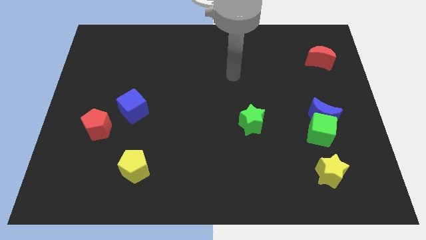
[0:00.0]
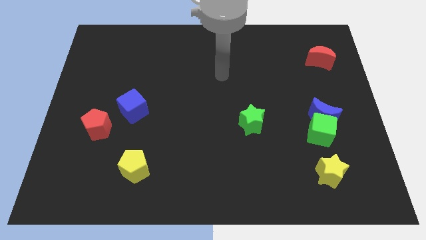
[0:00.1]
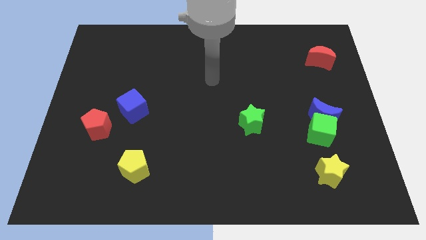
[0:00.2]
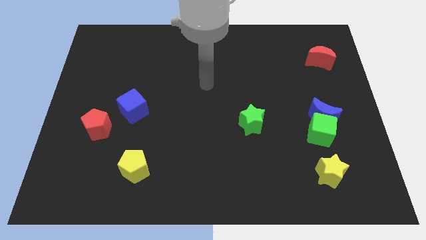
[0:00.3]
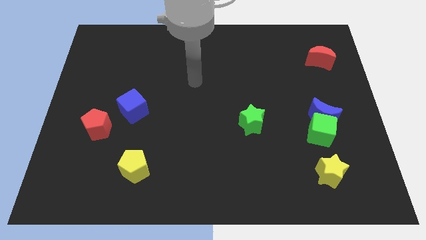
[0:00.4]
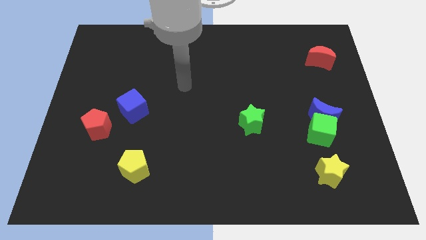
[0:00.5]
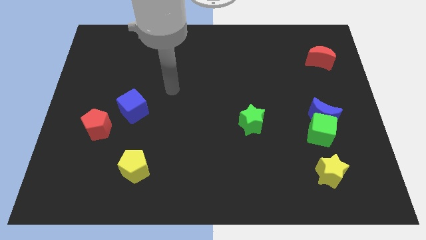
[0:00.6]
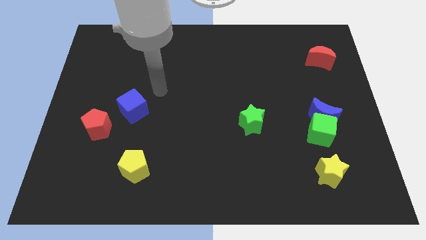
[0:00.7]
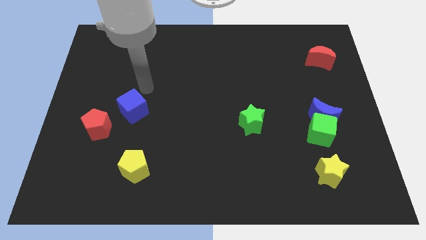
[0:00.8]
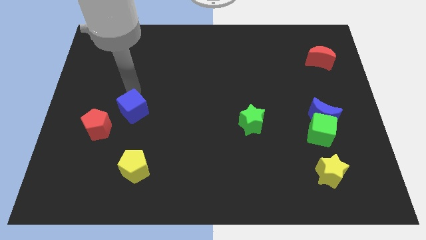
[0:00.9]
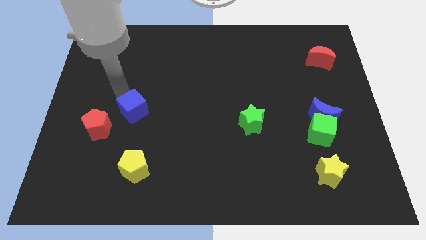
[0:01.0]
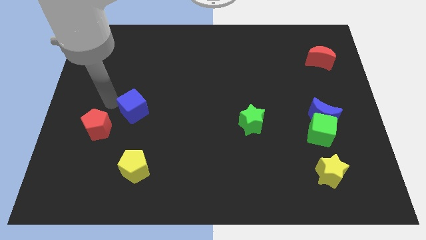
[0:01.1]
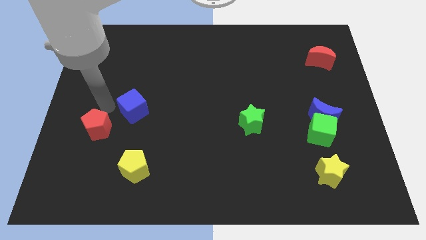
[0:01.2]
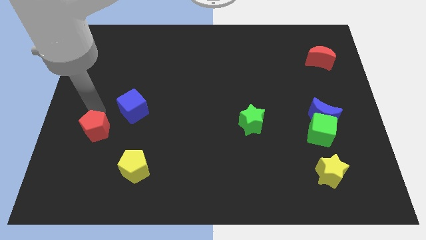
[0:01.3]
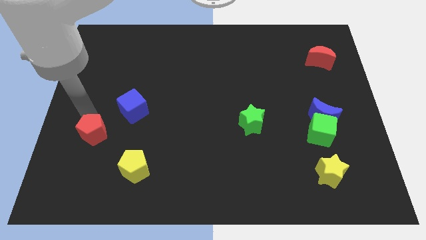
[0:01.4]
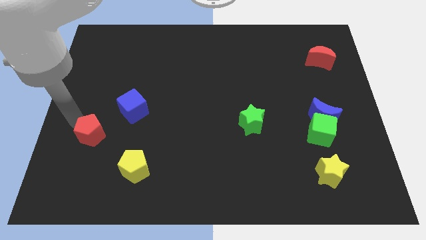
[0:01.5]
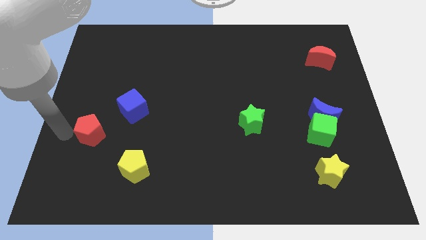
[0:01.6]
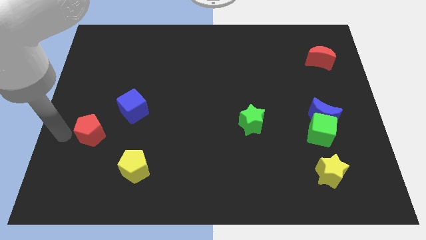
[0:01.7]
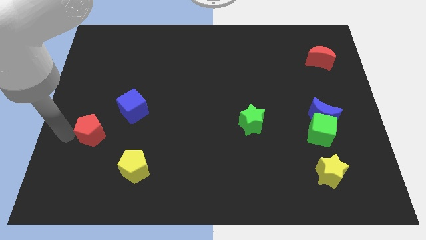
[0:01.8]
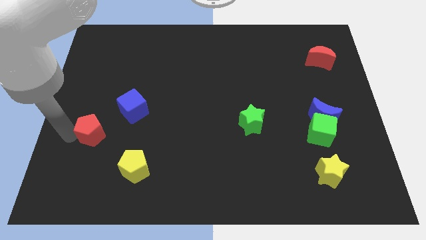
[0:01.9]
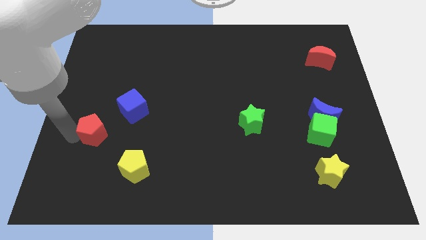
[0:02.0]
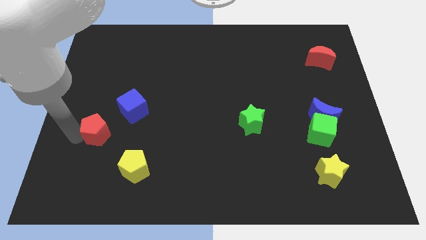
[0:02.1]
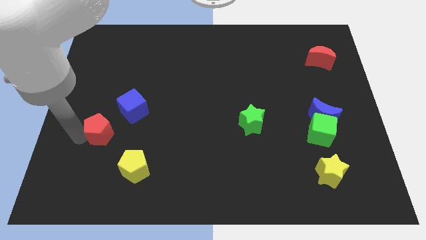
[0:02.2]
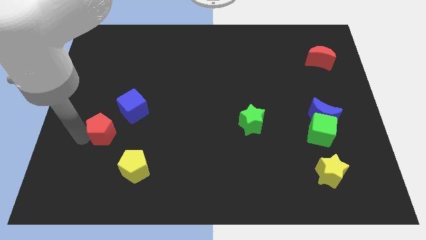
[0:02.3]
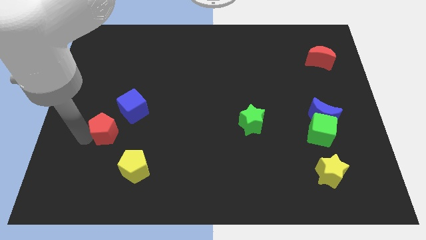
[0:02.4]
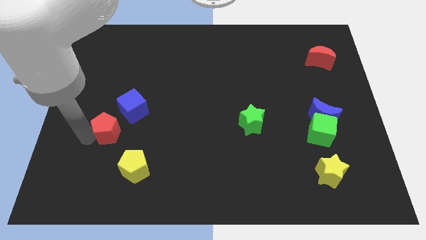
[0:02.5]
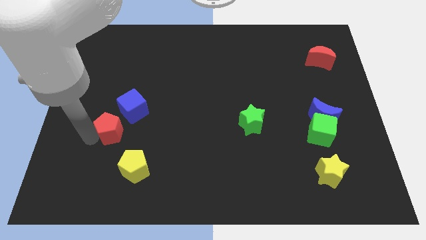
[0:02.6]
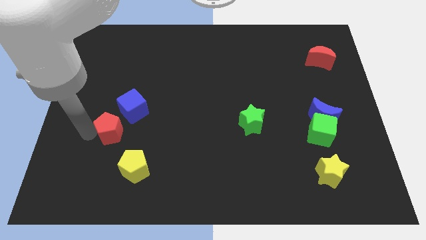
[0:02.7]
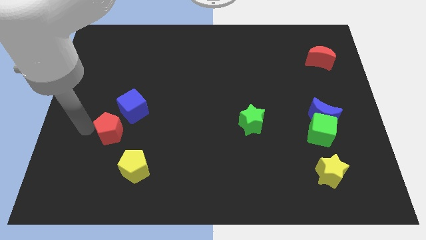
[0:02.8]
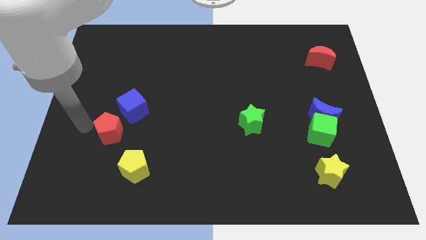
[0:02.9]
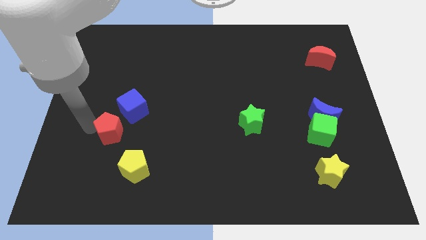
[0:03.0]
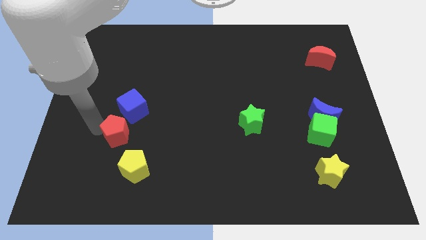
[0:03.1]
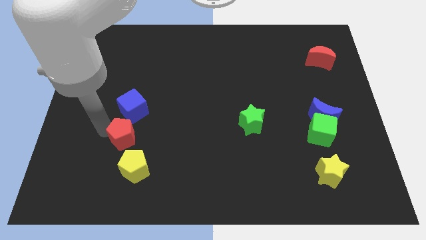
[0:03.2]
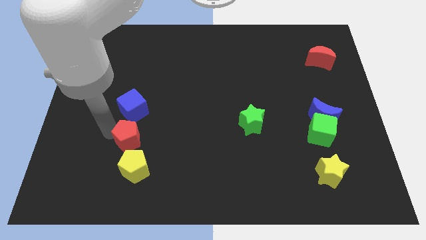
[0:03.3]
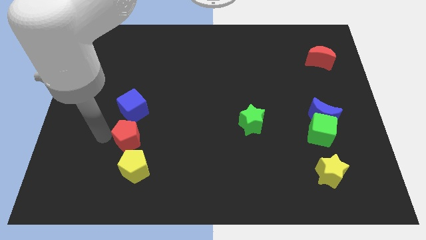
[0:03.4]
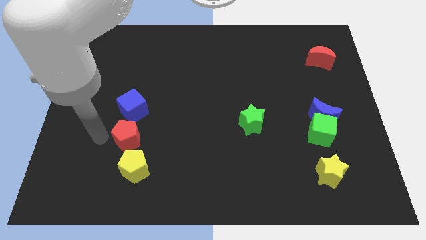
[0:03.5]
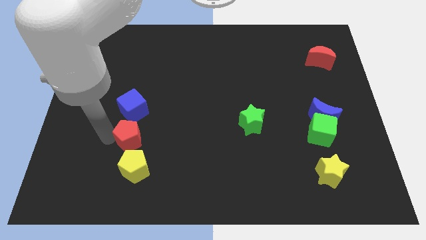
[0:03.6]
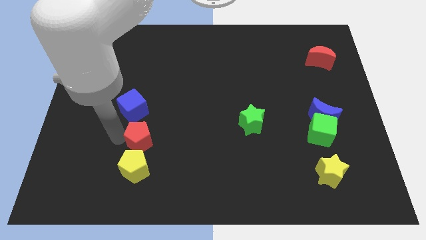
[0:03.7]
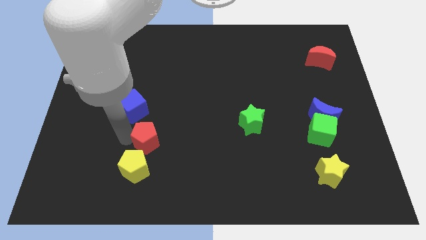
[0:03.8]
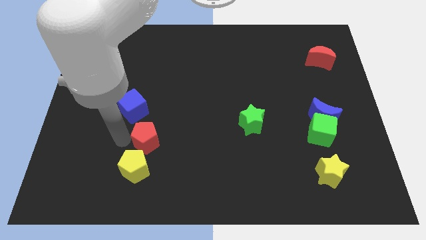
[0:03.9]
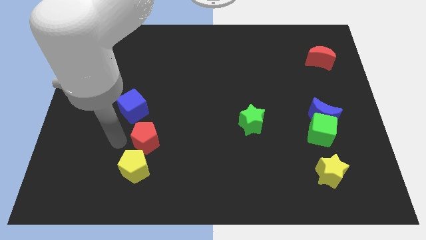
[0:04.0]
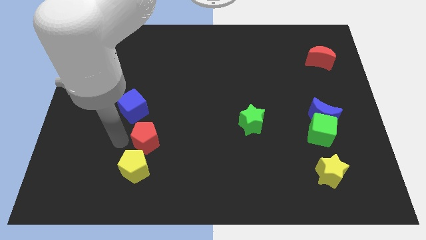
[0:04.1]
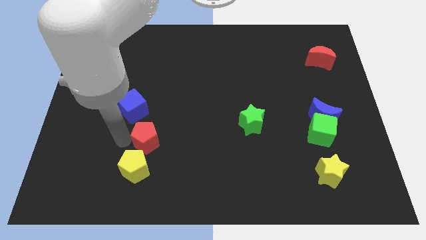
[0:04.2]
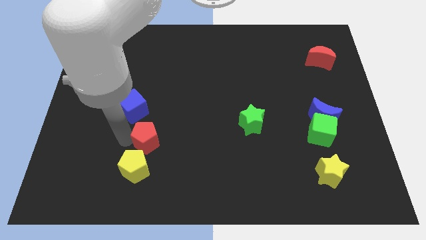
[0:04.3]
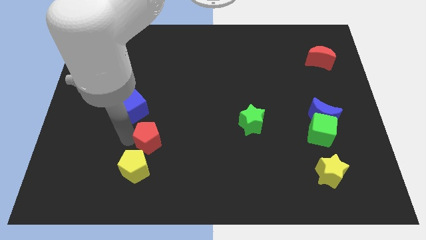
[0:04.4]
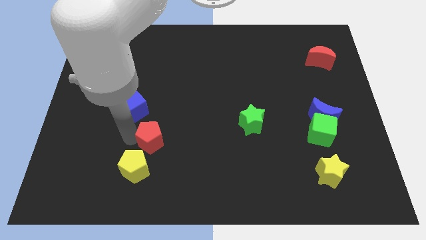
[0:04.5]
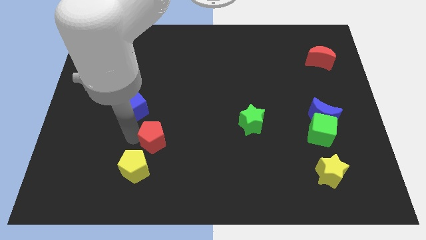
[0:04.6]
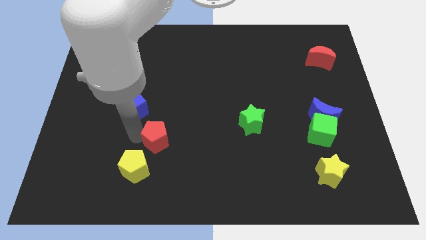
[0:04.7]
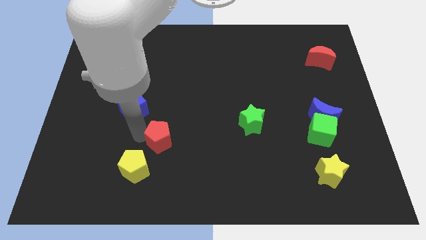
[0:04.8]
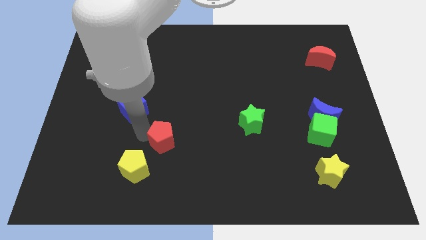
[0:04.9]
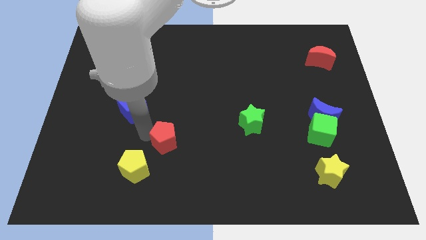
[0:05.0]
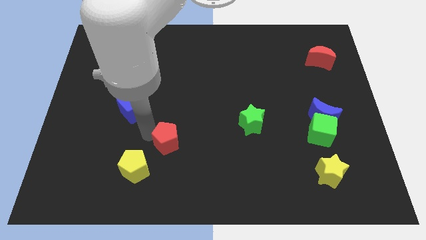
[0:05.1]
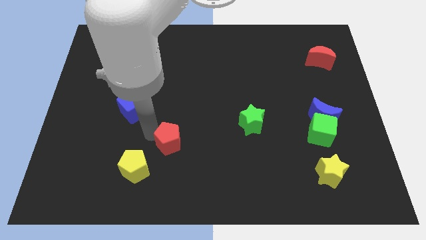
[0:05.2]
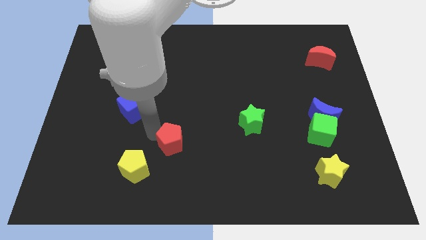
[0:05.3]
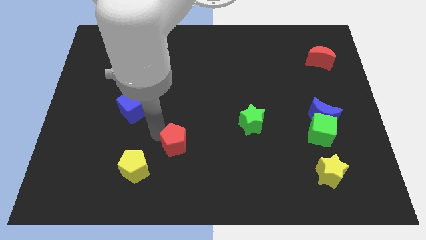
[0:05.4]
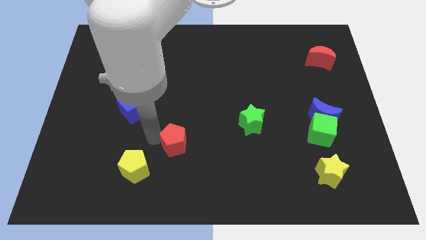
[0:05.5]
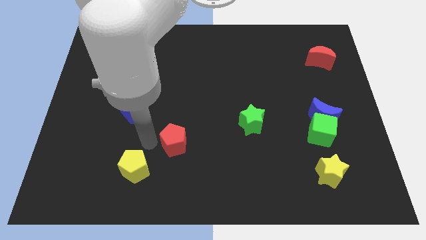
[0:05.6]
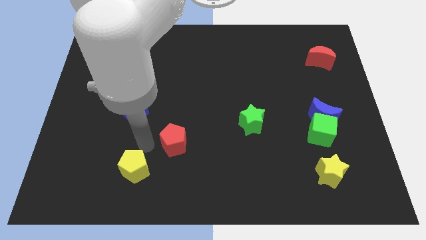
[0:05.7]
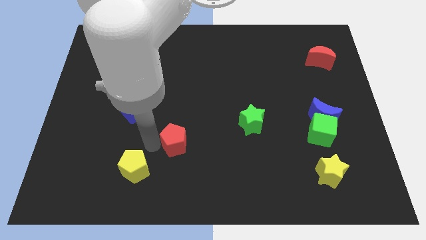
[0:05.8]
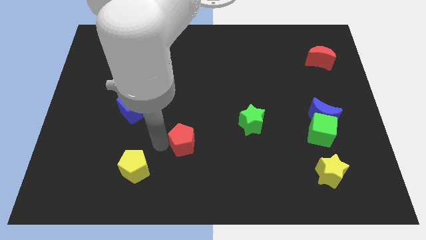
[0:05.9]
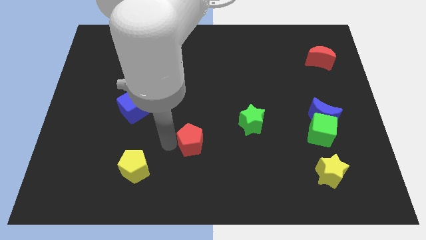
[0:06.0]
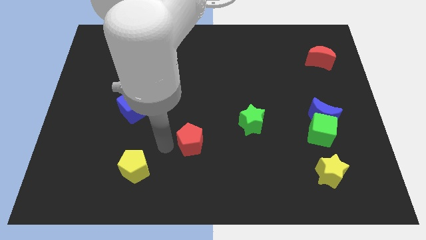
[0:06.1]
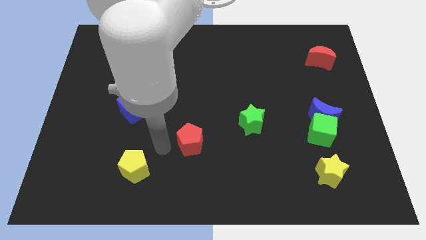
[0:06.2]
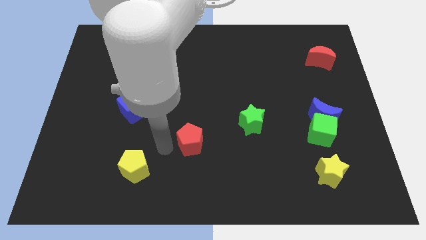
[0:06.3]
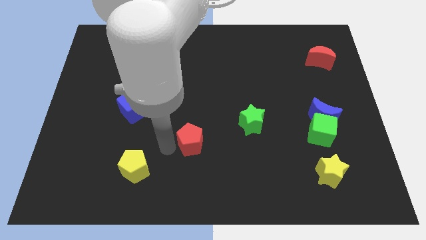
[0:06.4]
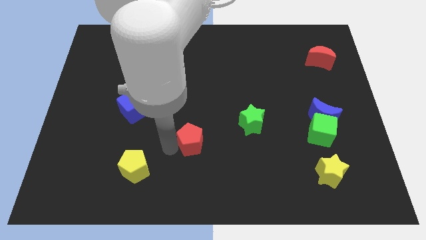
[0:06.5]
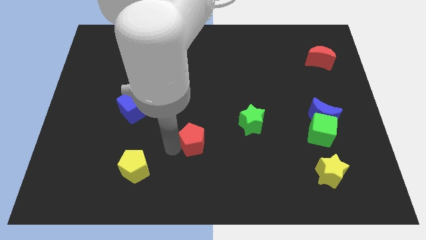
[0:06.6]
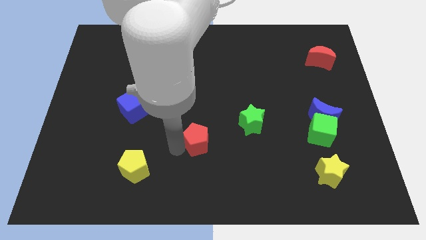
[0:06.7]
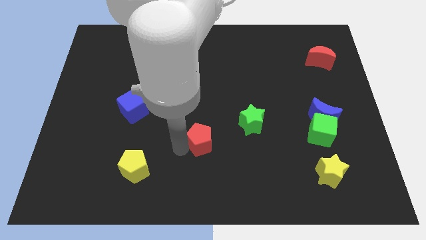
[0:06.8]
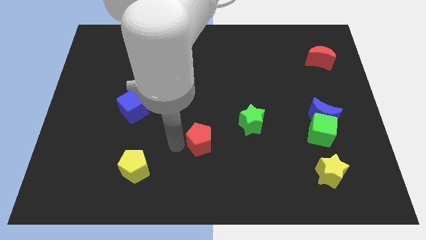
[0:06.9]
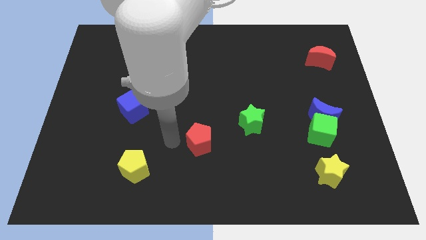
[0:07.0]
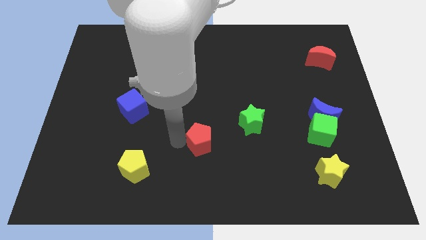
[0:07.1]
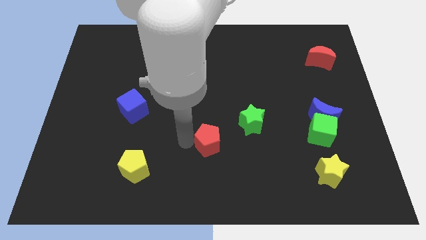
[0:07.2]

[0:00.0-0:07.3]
move the red pentagon diagonally down and to the left of the green star
